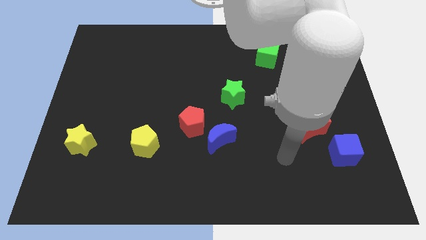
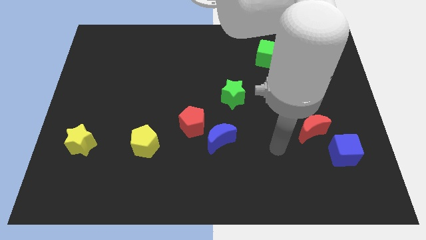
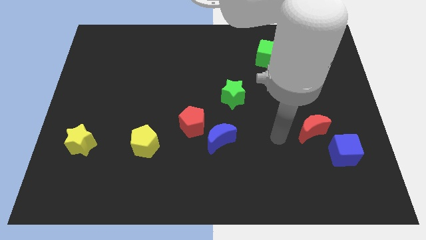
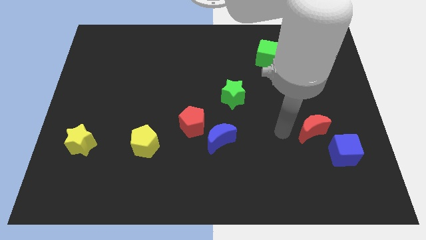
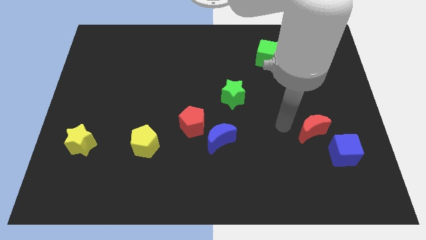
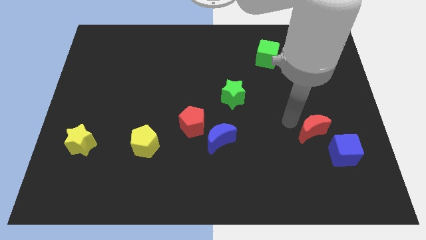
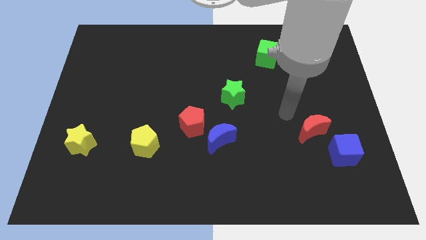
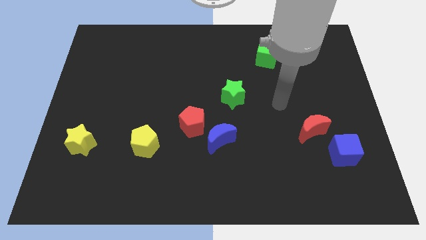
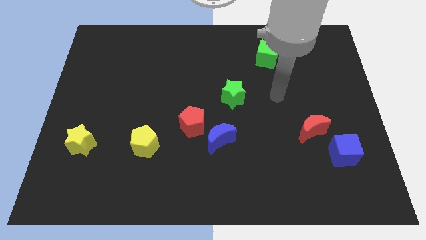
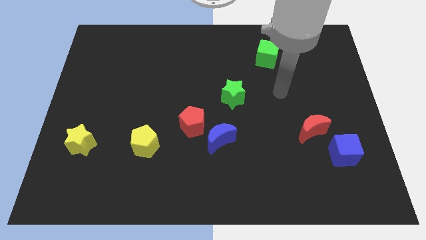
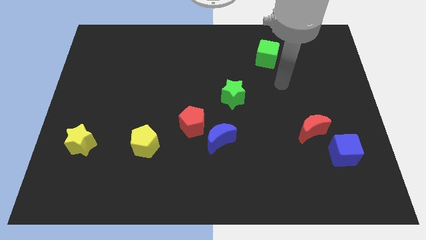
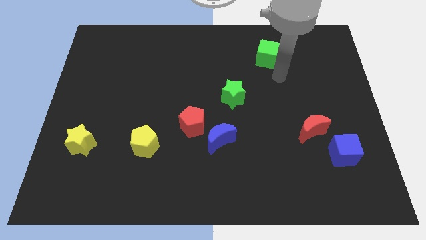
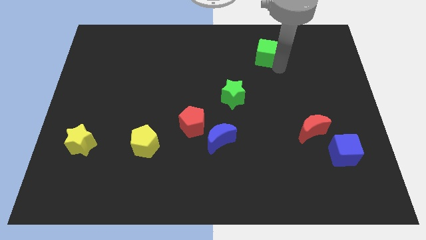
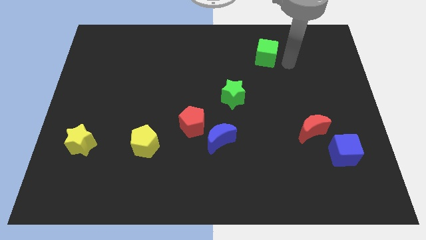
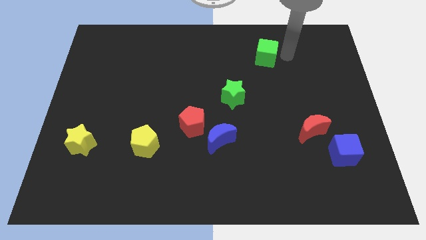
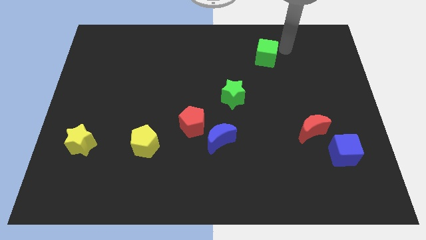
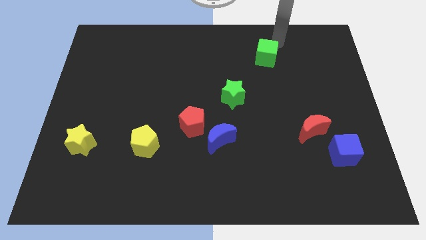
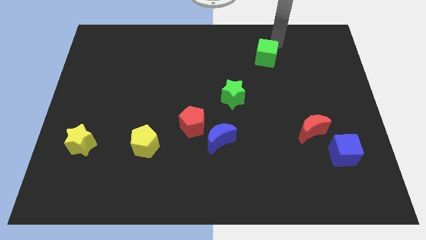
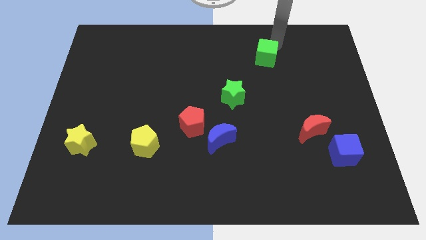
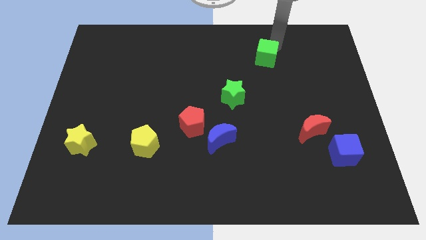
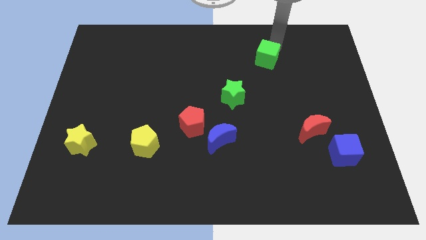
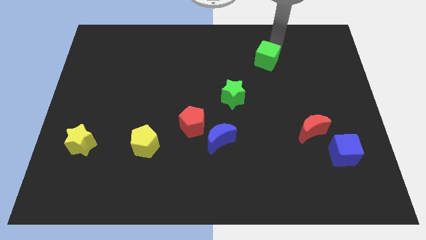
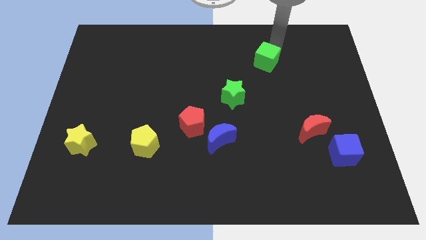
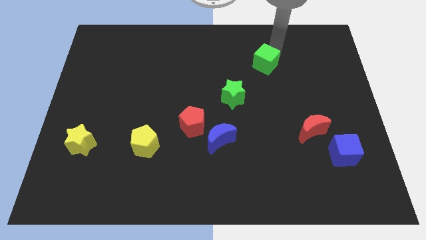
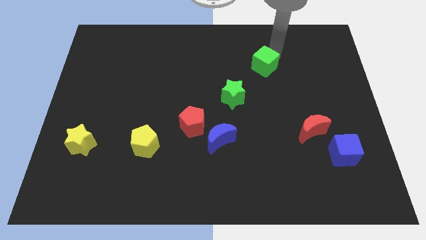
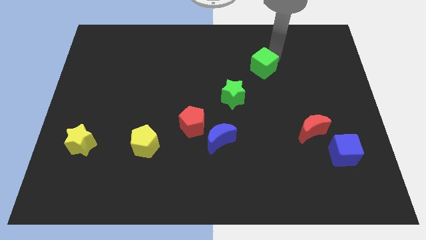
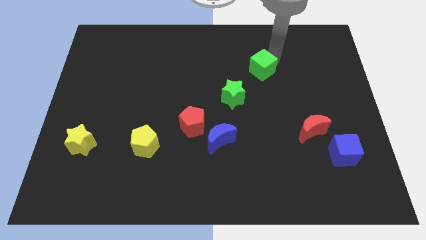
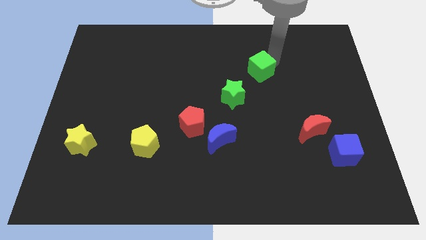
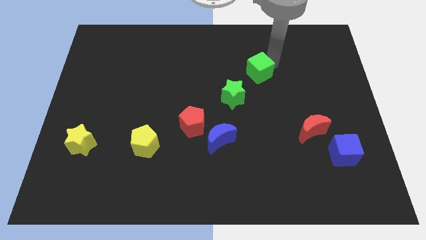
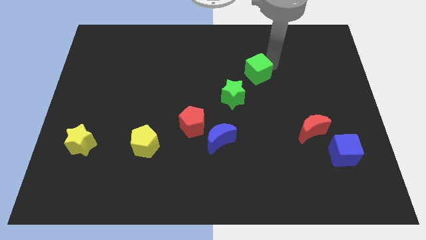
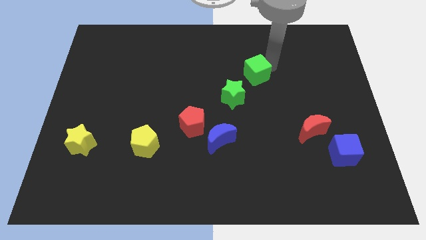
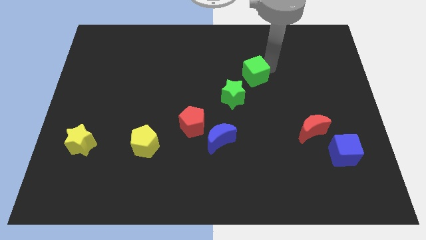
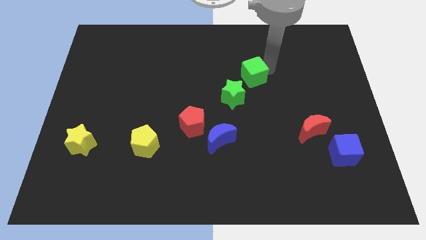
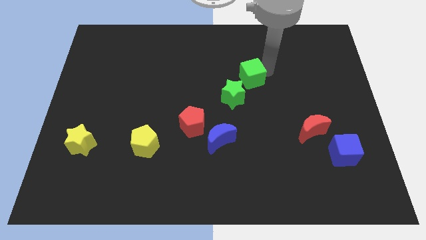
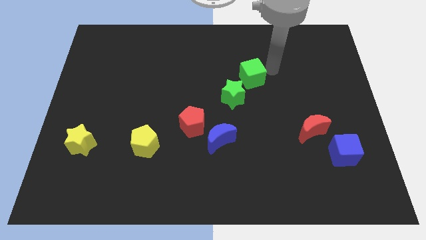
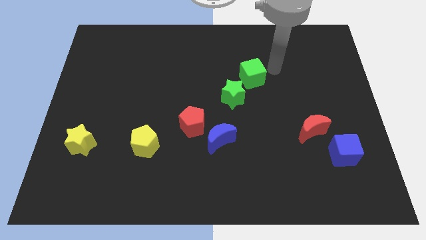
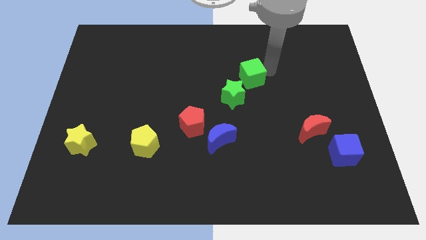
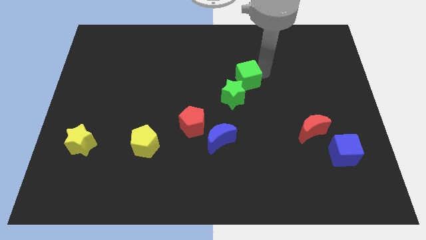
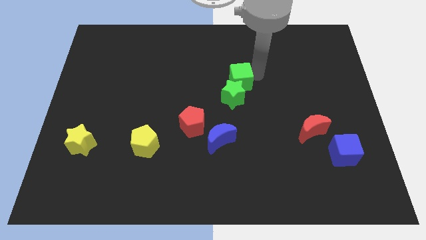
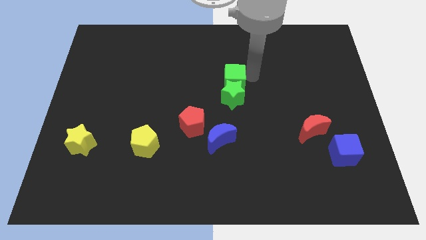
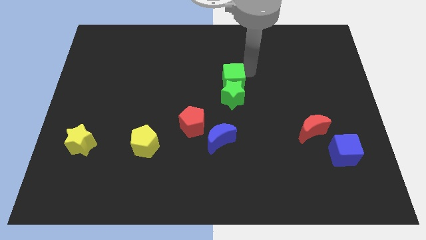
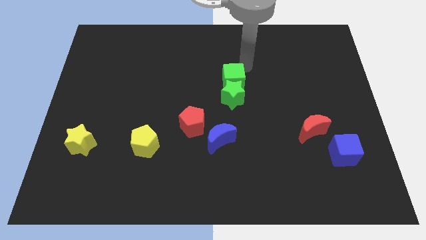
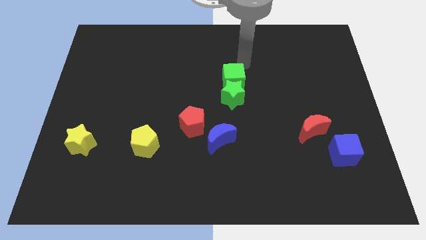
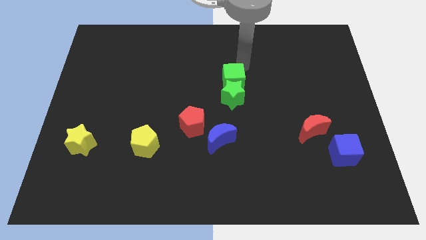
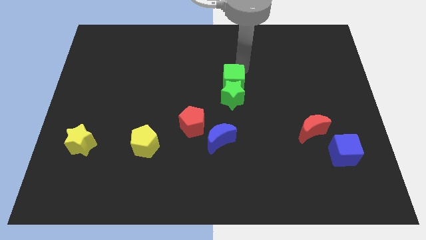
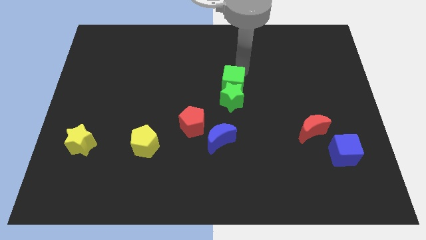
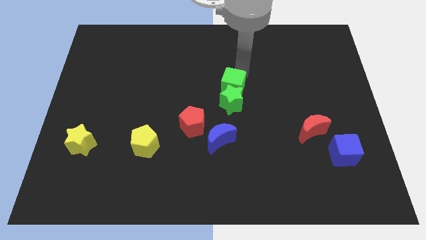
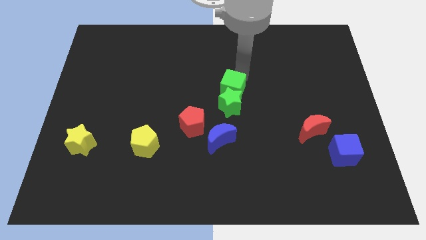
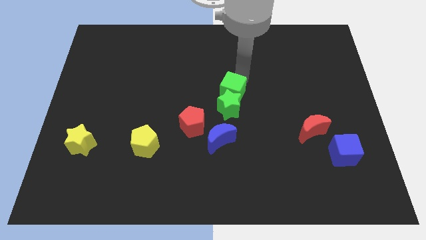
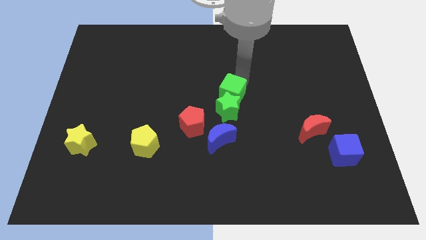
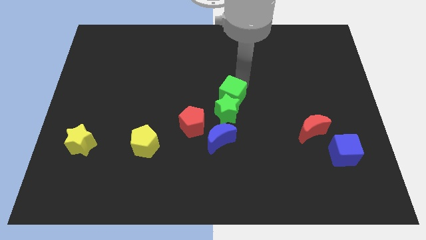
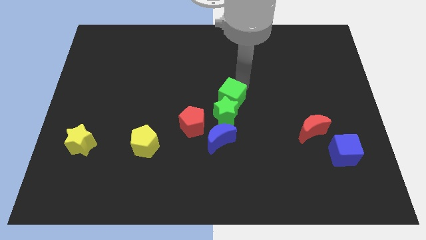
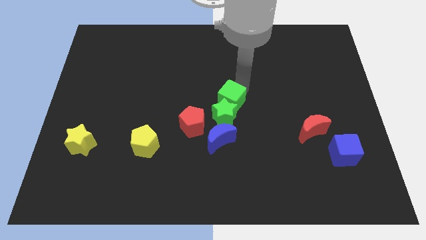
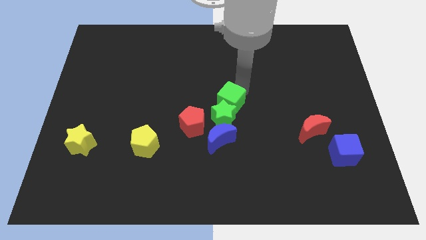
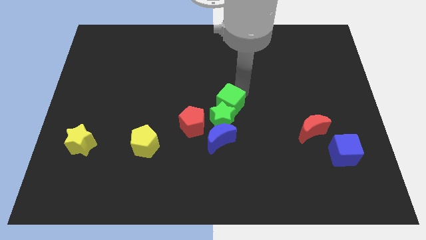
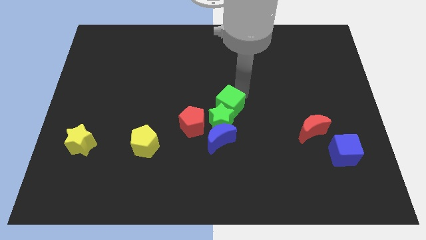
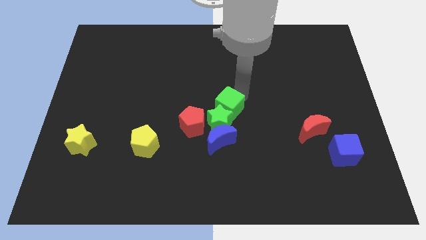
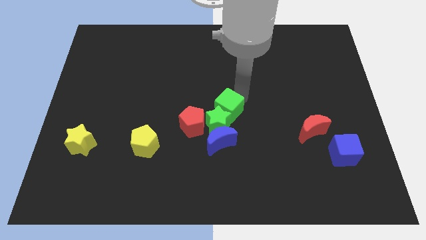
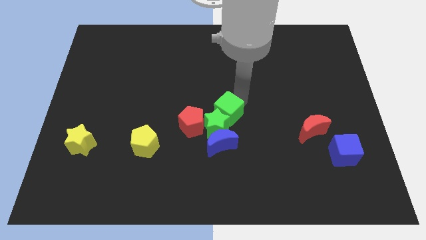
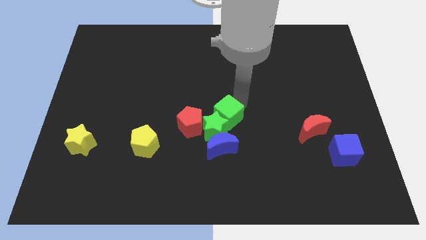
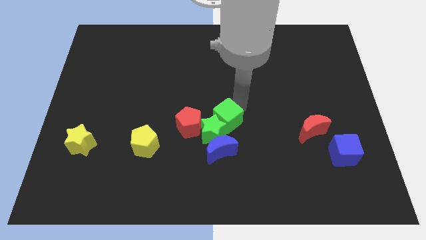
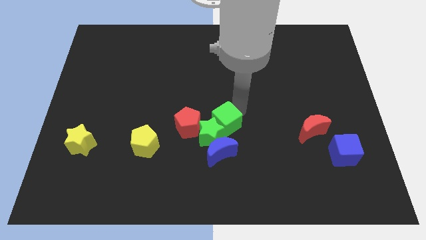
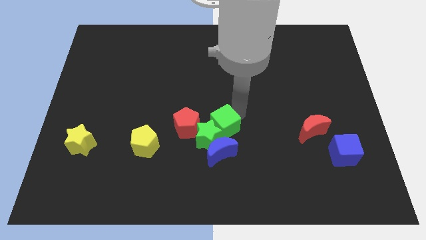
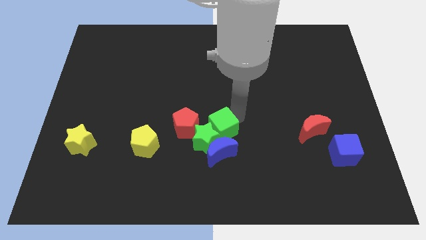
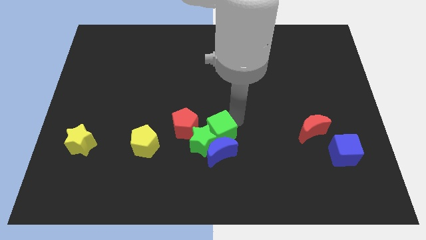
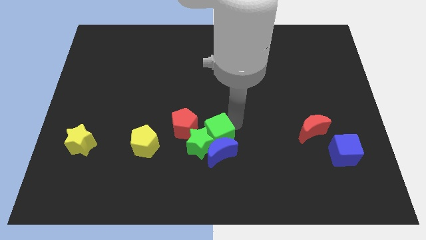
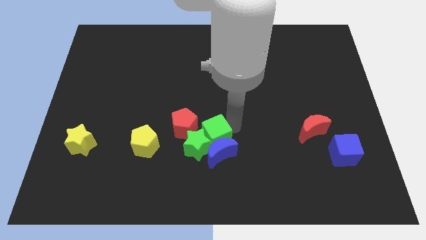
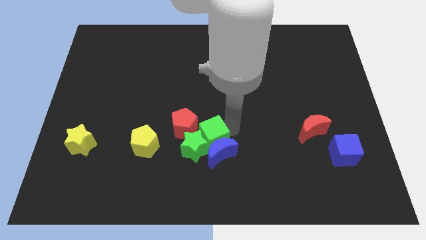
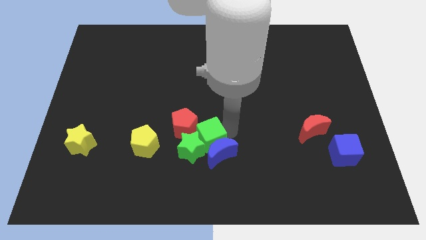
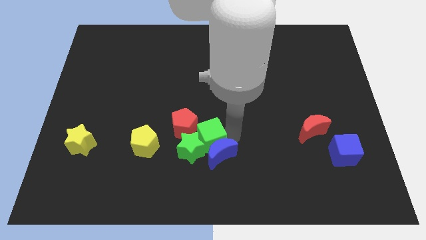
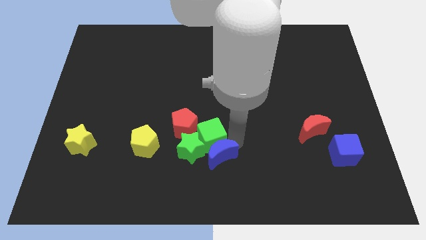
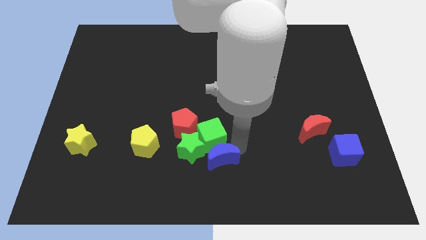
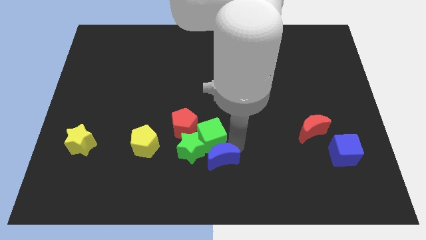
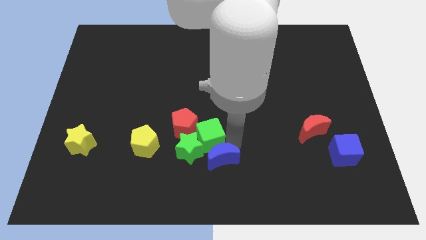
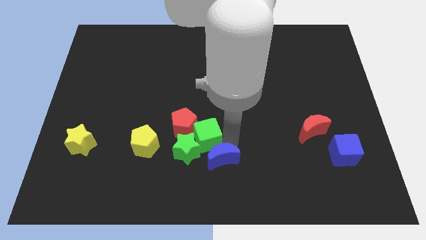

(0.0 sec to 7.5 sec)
slide the green cube close to the red pentagon

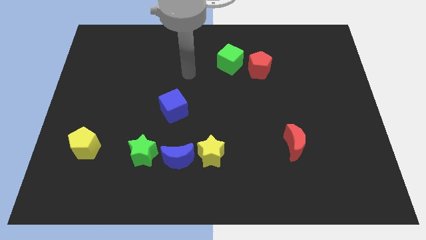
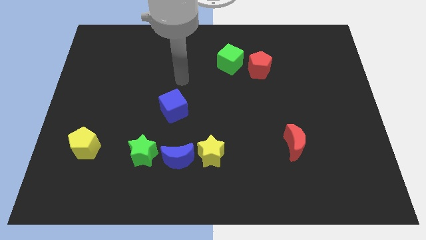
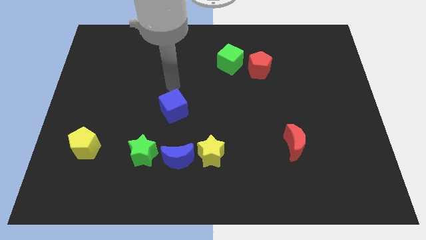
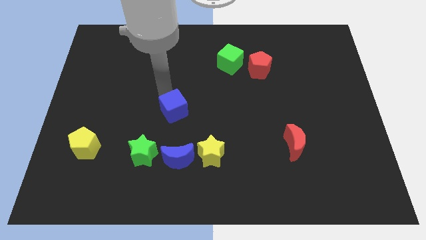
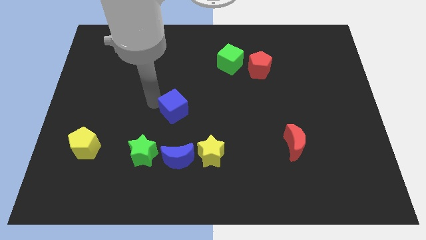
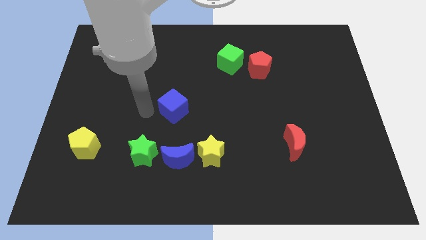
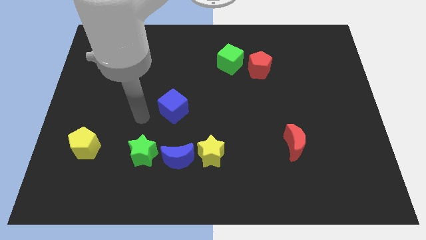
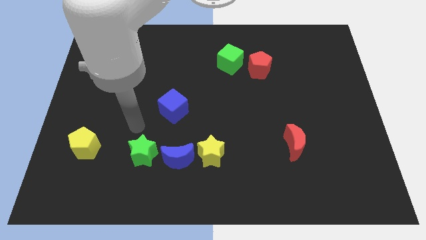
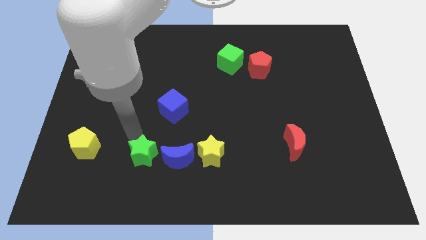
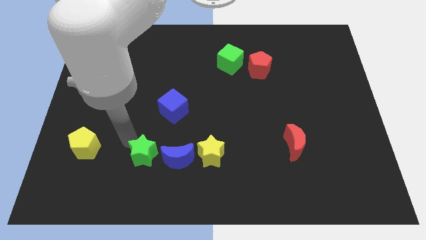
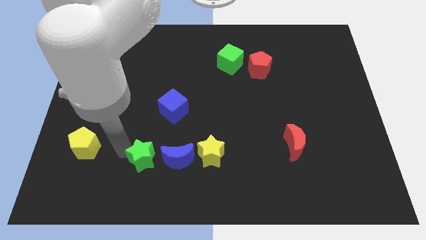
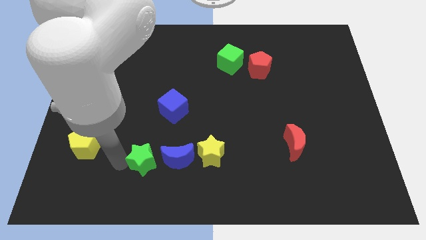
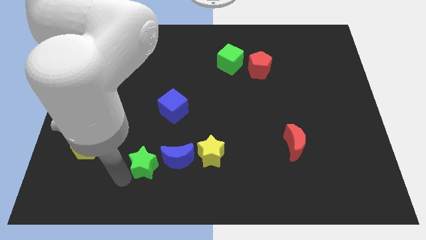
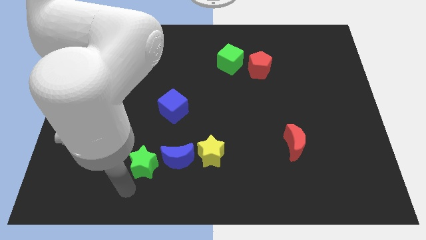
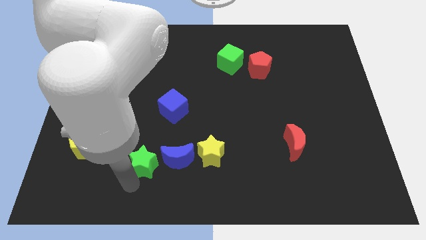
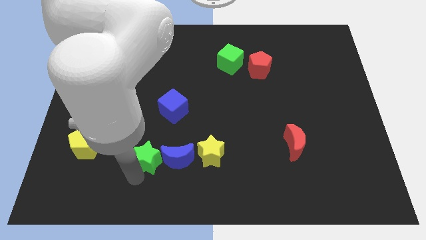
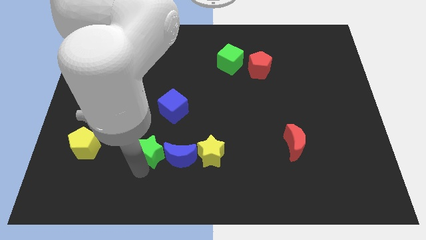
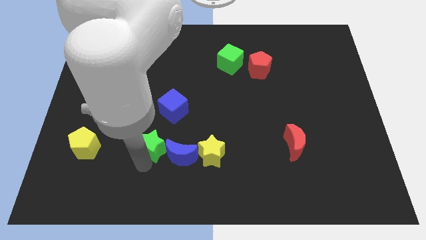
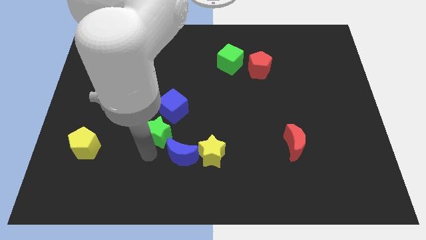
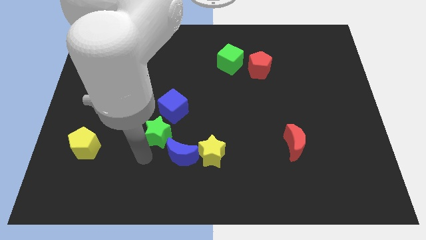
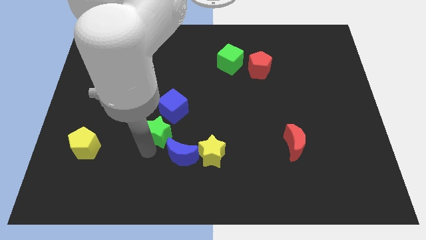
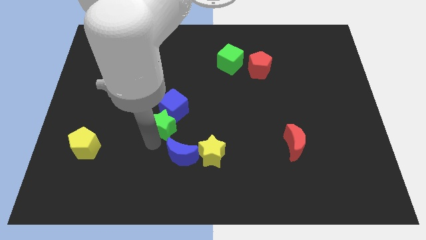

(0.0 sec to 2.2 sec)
push the green star next to the blue cube
